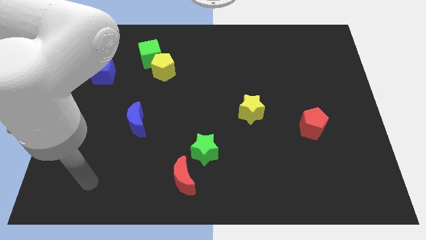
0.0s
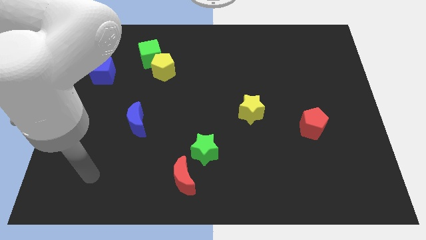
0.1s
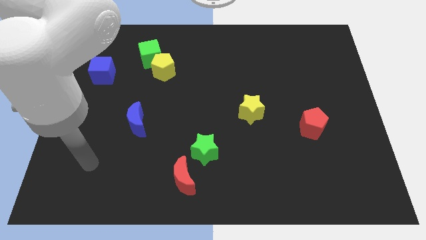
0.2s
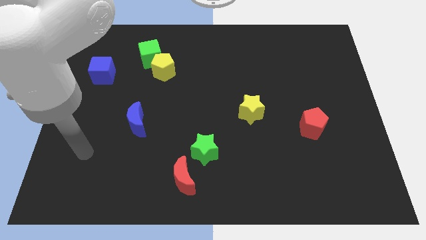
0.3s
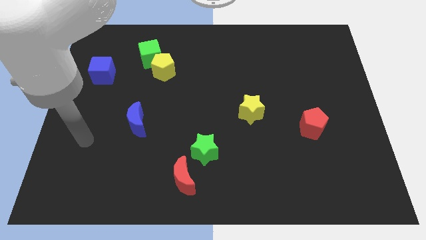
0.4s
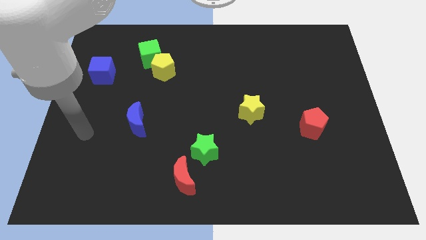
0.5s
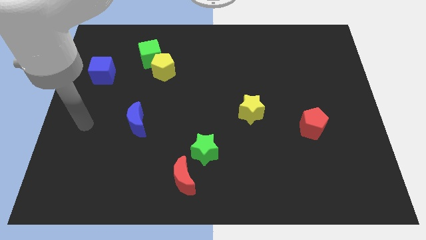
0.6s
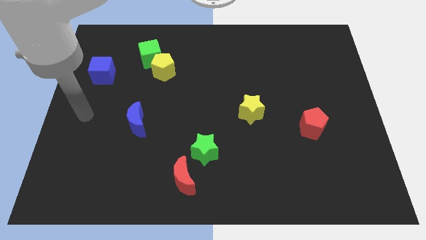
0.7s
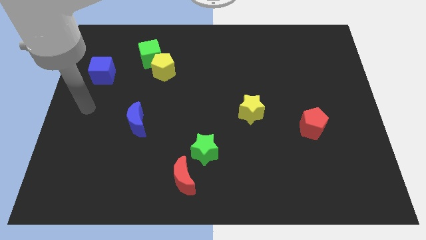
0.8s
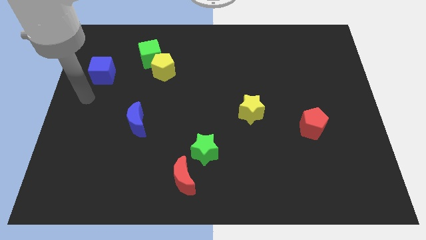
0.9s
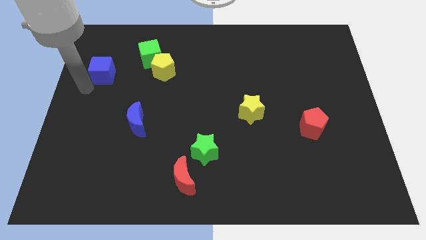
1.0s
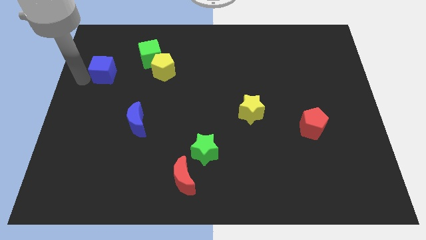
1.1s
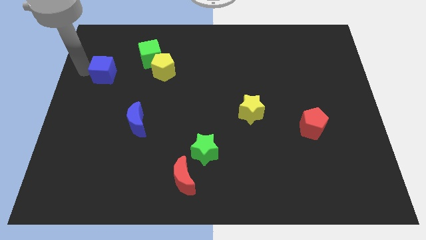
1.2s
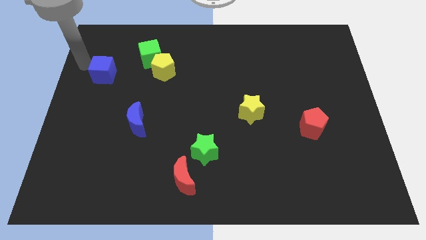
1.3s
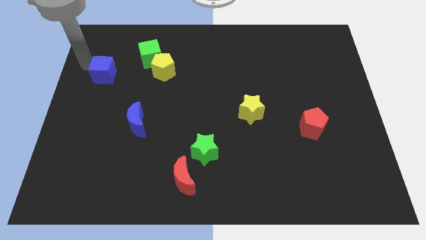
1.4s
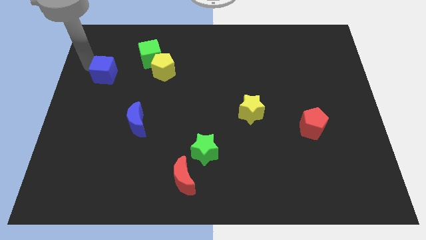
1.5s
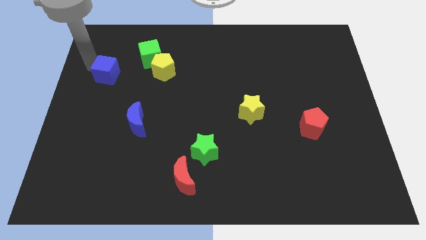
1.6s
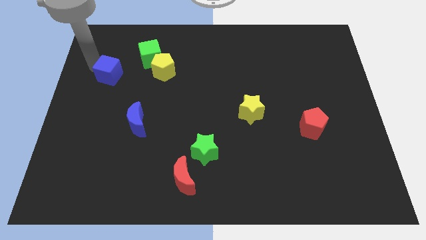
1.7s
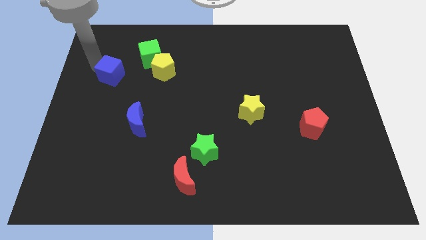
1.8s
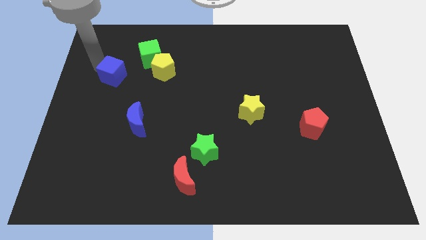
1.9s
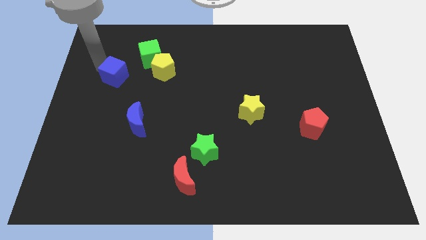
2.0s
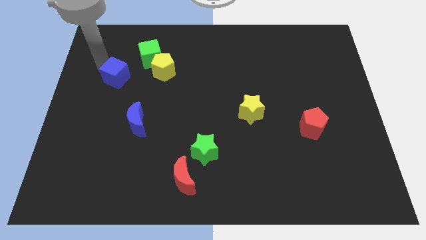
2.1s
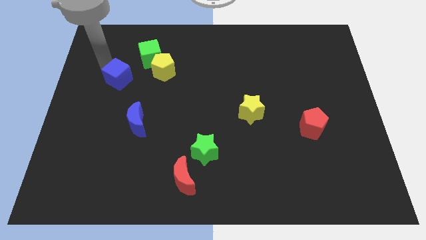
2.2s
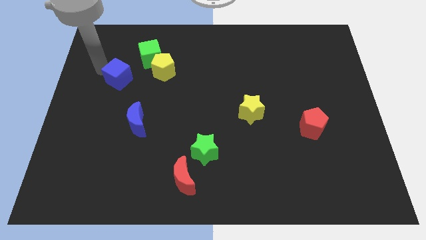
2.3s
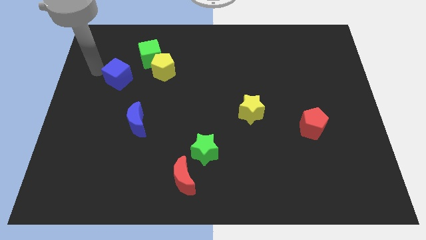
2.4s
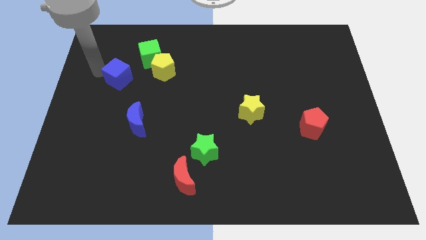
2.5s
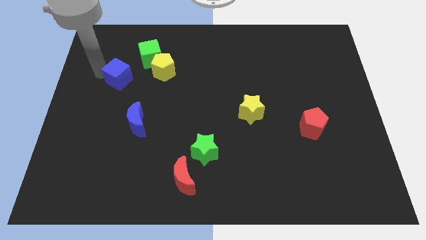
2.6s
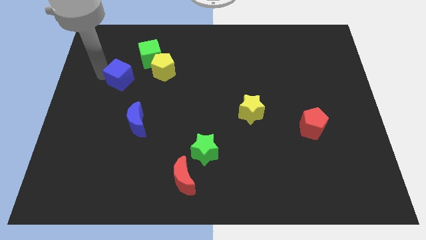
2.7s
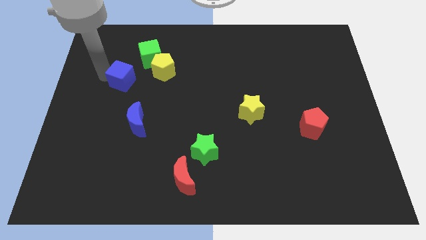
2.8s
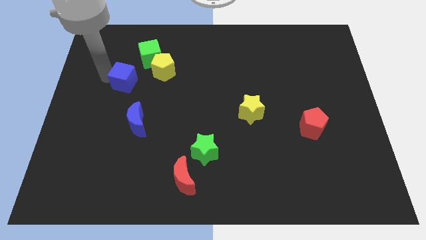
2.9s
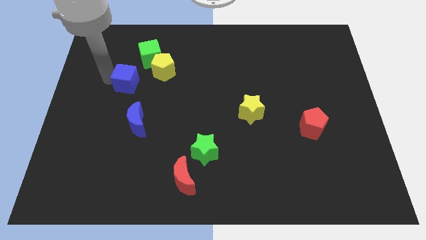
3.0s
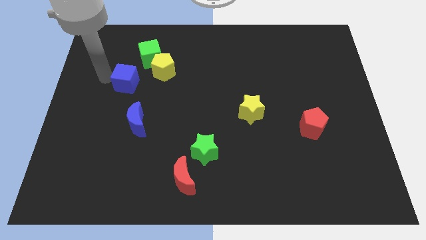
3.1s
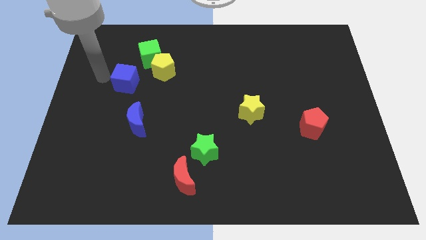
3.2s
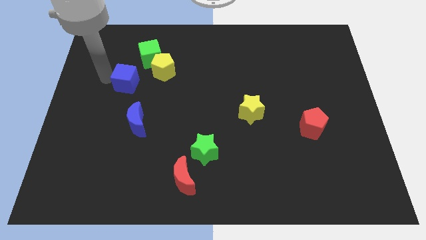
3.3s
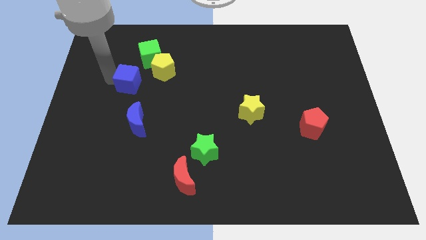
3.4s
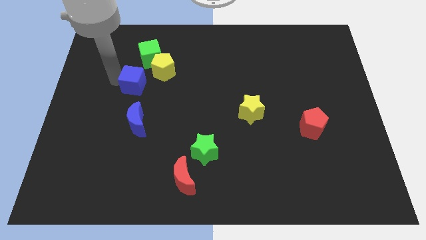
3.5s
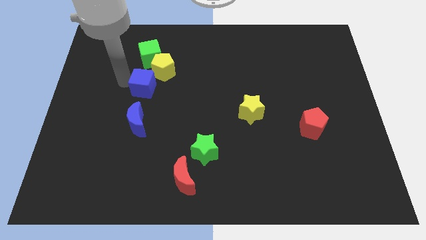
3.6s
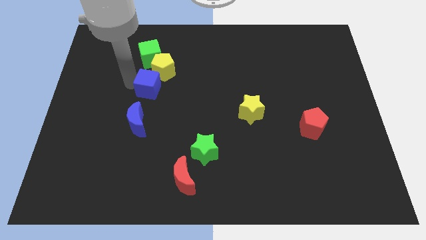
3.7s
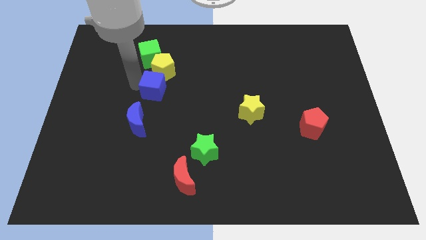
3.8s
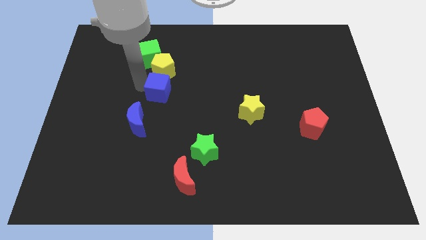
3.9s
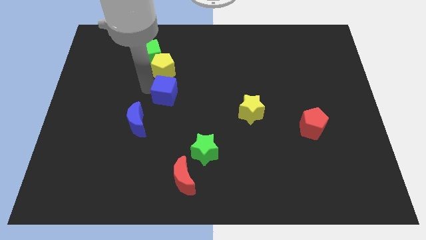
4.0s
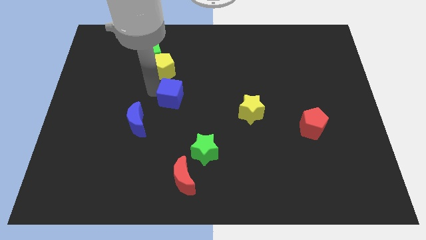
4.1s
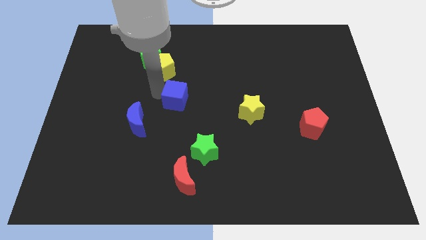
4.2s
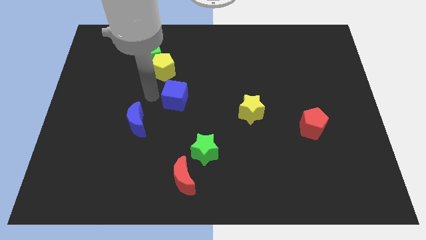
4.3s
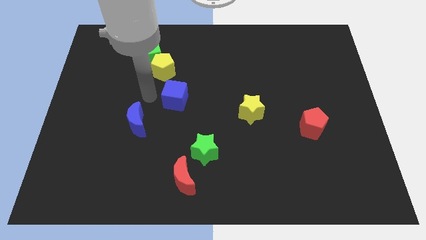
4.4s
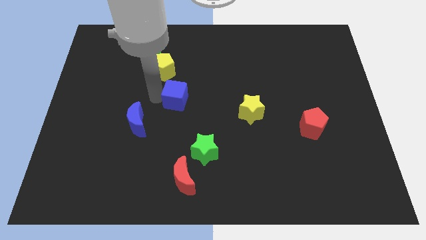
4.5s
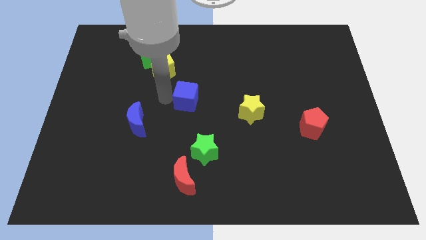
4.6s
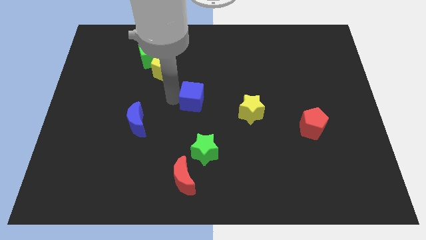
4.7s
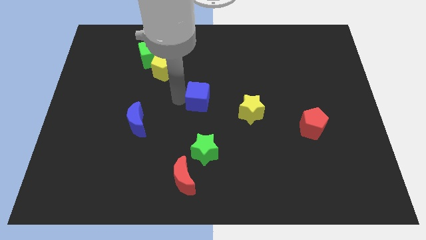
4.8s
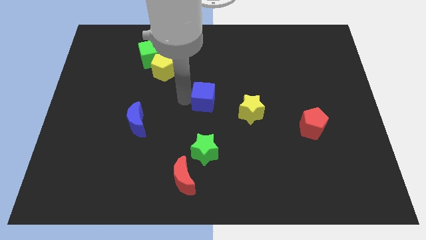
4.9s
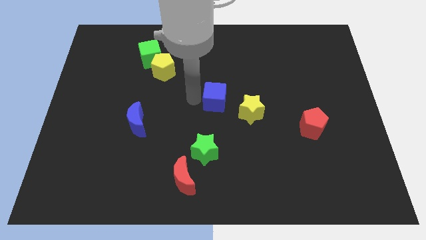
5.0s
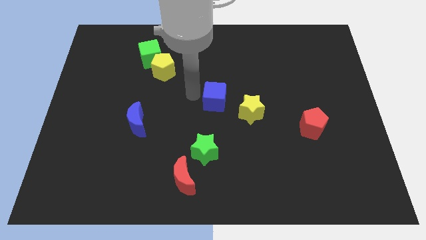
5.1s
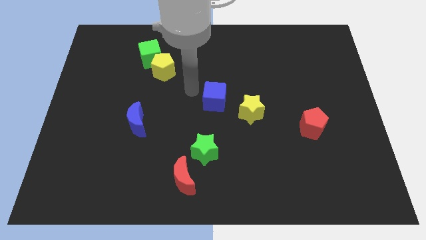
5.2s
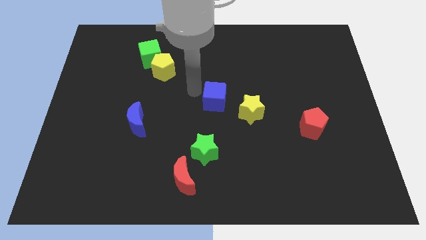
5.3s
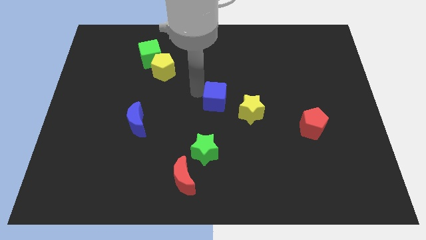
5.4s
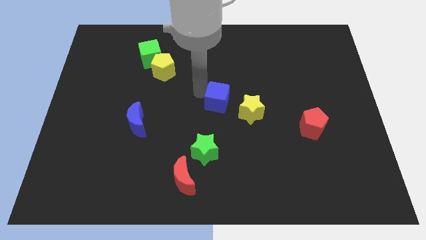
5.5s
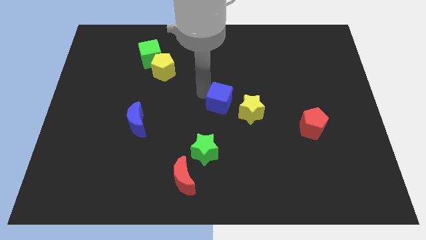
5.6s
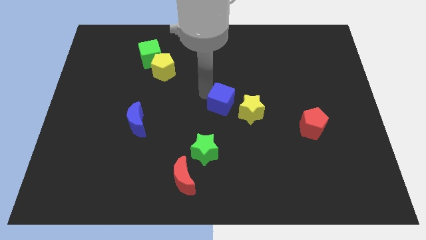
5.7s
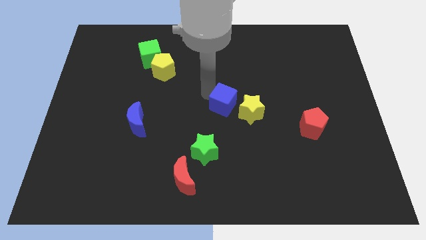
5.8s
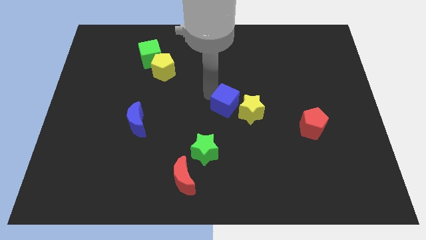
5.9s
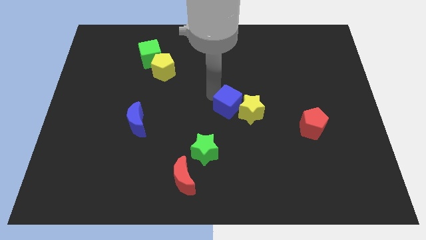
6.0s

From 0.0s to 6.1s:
move the blue cube towards the yellow star

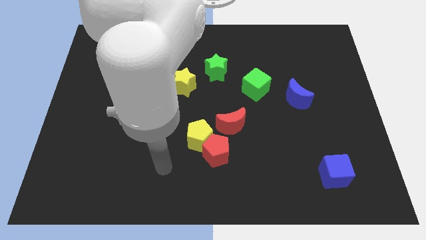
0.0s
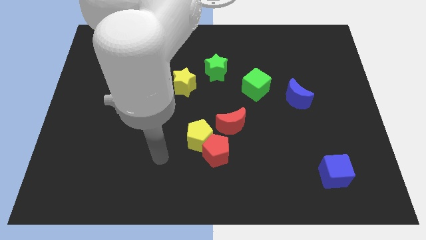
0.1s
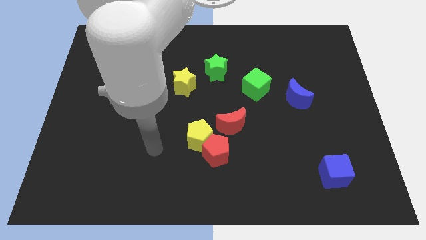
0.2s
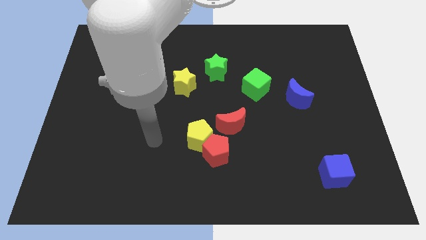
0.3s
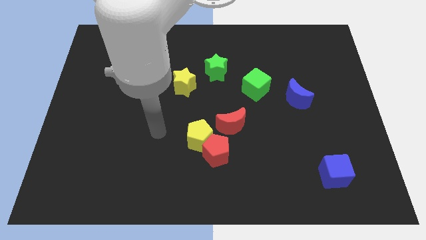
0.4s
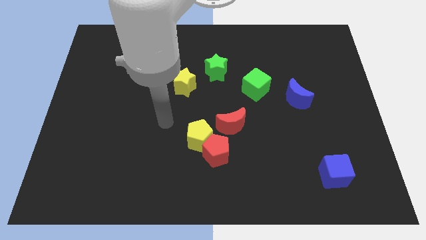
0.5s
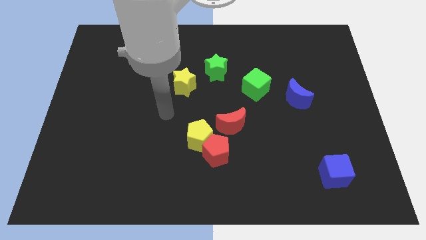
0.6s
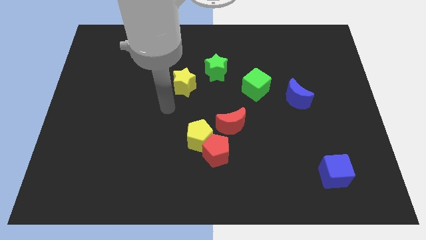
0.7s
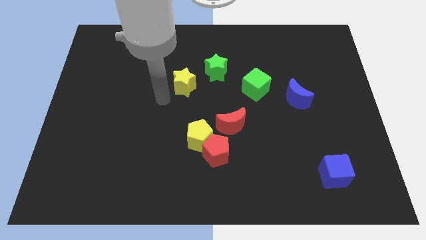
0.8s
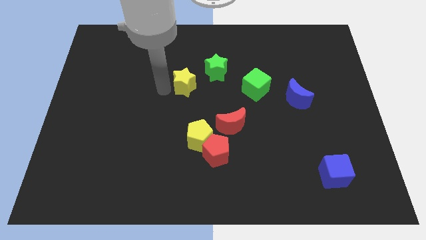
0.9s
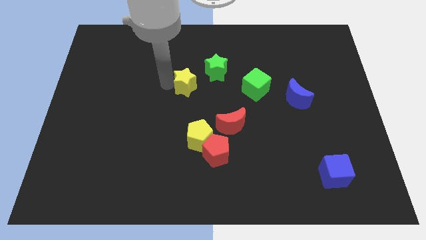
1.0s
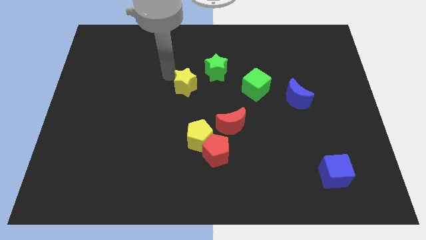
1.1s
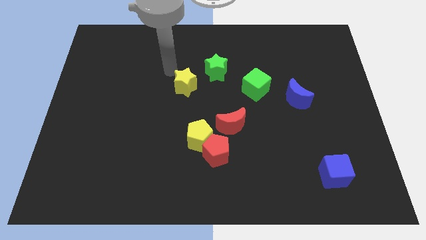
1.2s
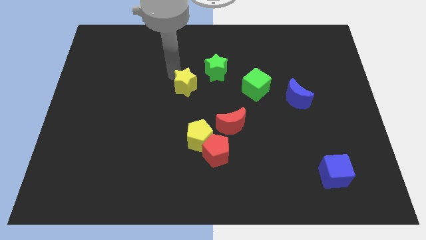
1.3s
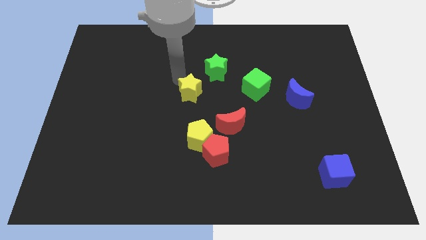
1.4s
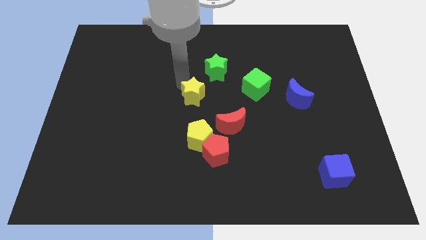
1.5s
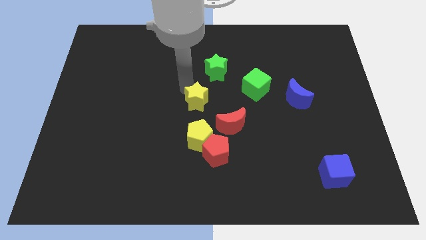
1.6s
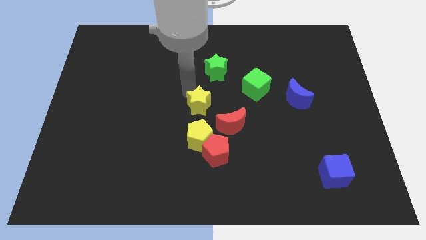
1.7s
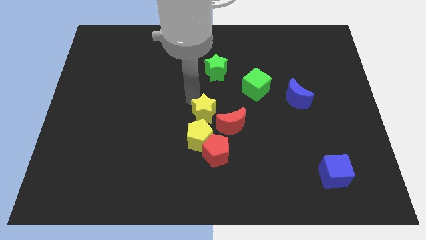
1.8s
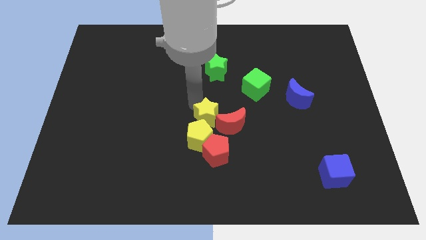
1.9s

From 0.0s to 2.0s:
push the yellow star close to the red moon
